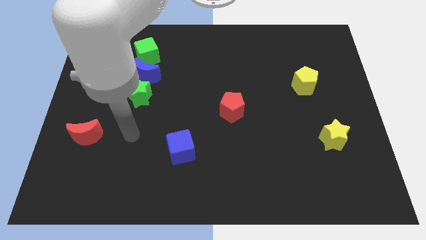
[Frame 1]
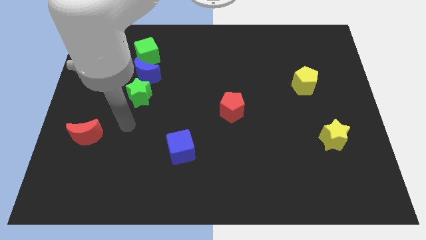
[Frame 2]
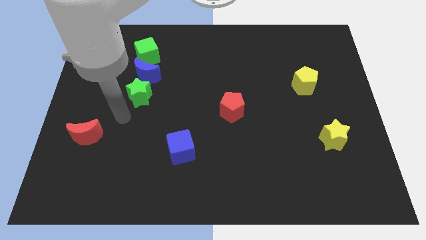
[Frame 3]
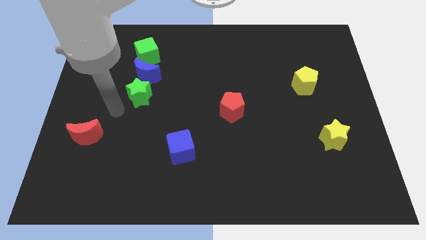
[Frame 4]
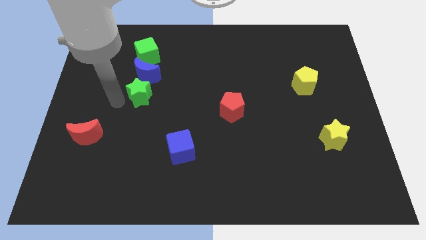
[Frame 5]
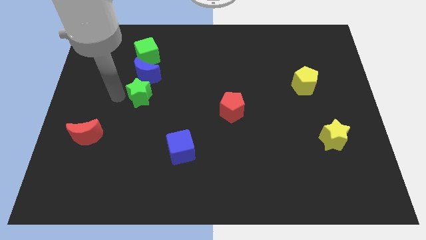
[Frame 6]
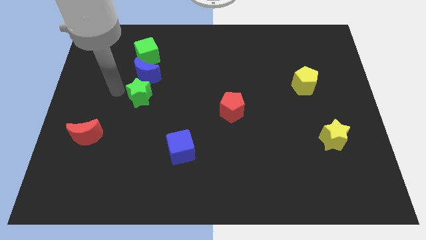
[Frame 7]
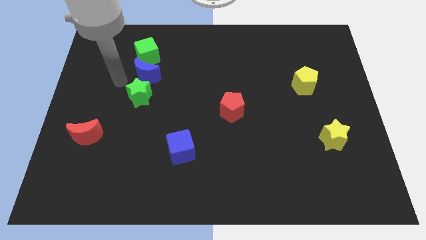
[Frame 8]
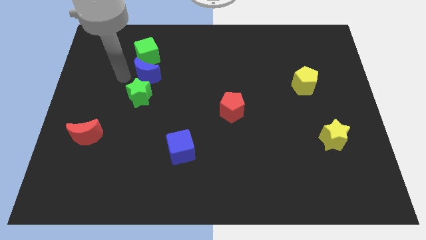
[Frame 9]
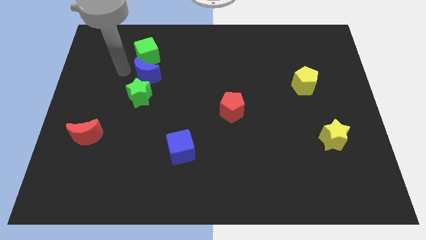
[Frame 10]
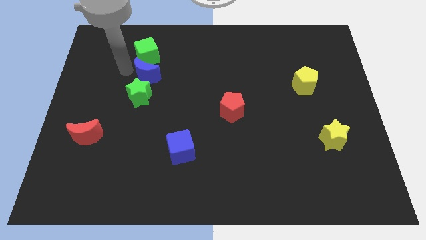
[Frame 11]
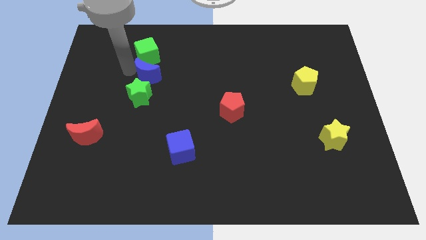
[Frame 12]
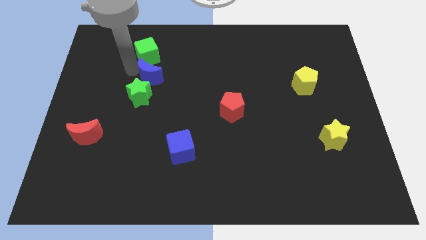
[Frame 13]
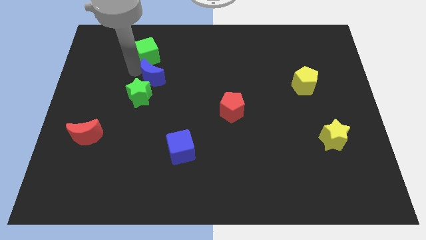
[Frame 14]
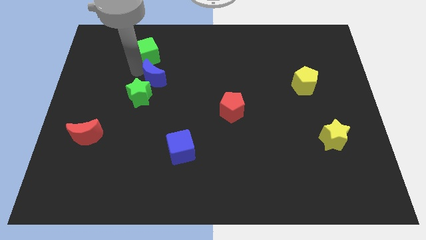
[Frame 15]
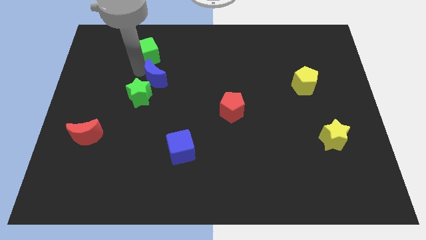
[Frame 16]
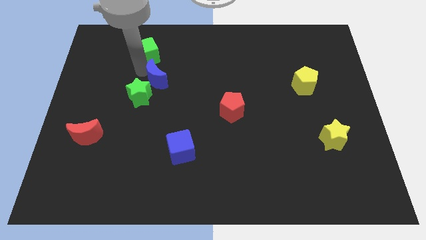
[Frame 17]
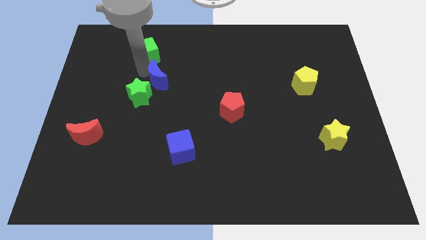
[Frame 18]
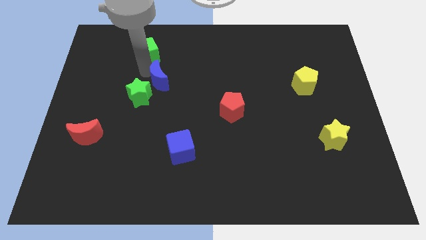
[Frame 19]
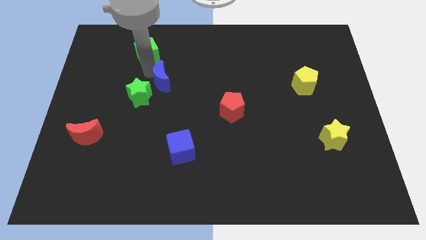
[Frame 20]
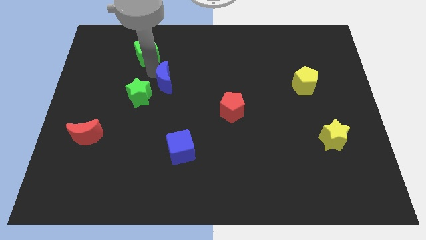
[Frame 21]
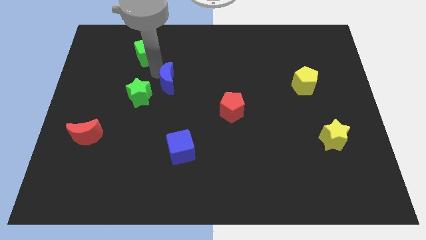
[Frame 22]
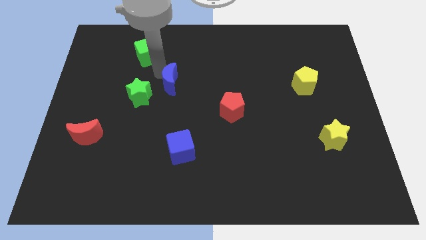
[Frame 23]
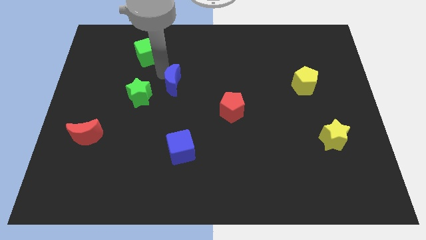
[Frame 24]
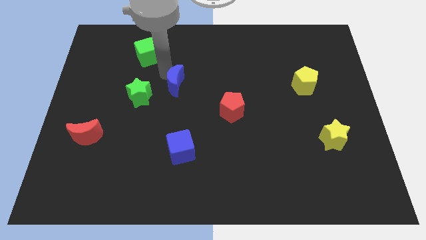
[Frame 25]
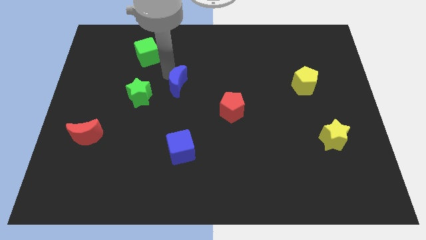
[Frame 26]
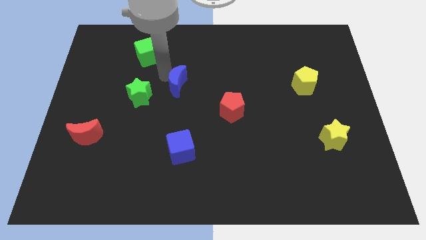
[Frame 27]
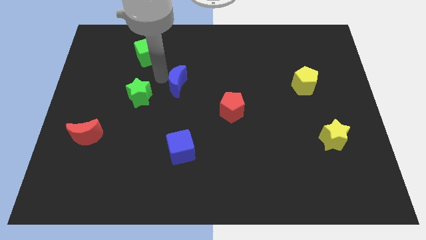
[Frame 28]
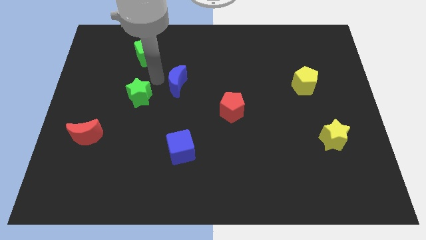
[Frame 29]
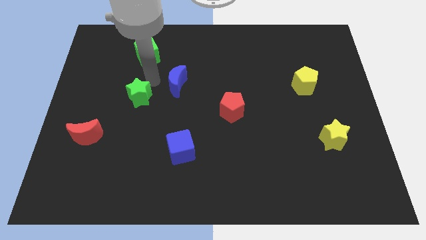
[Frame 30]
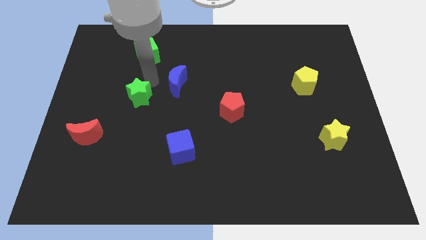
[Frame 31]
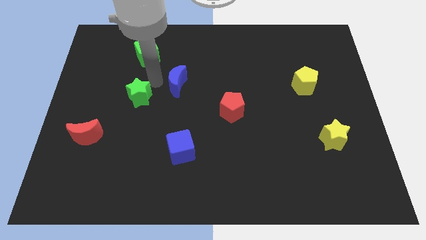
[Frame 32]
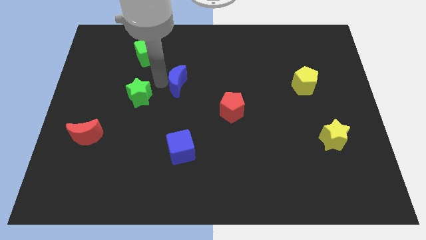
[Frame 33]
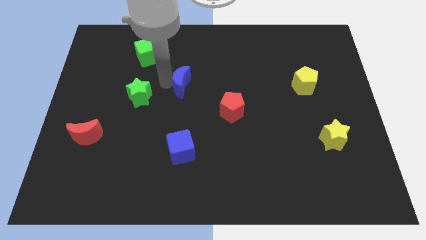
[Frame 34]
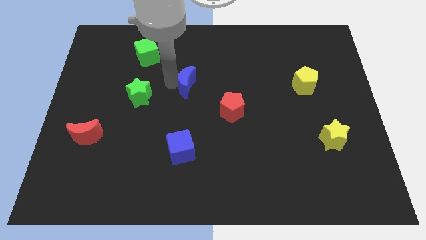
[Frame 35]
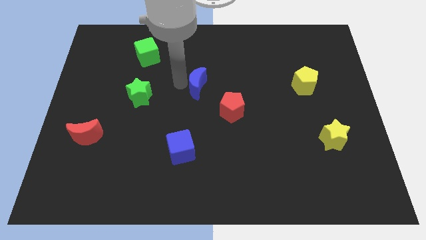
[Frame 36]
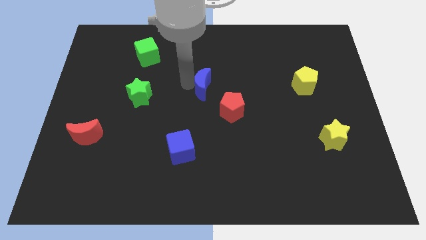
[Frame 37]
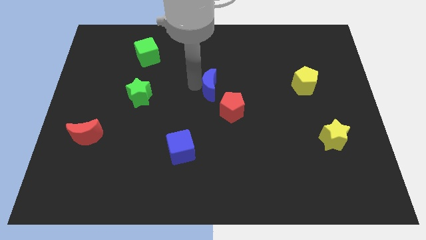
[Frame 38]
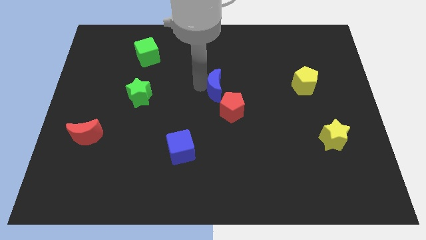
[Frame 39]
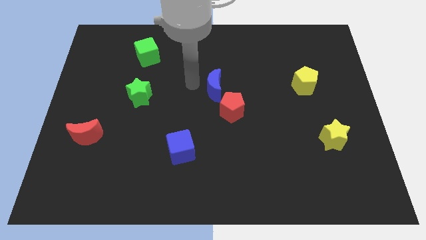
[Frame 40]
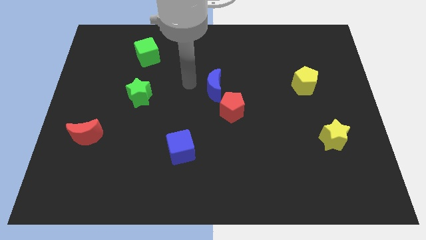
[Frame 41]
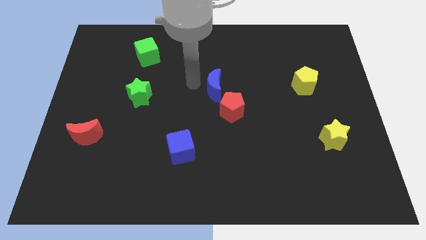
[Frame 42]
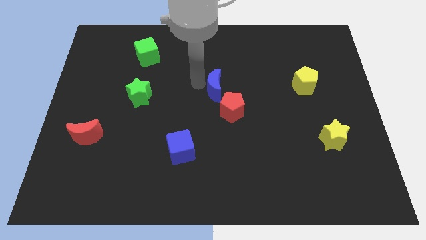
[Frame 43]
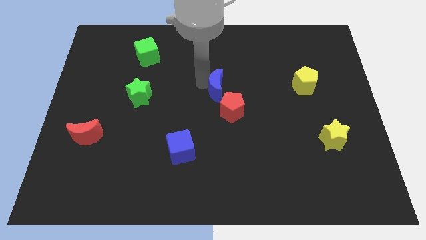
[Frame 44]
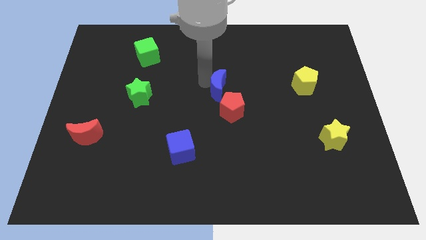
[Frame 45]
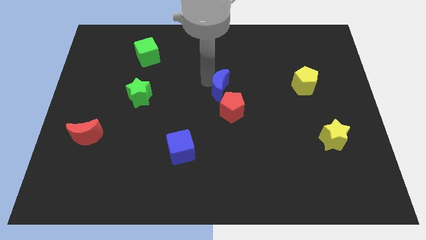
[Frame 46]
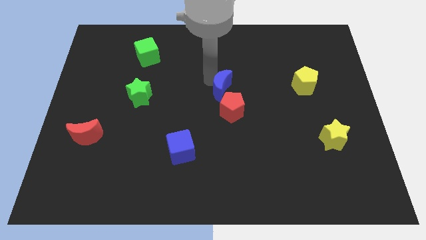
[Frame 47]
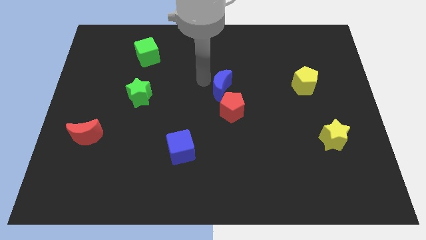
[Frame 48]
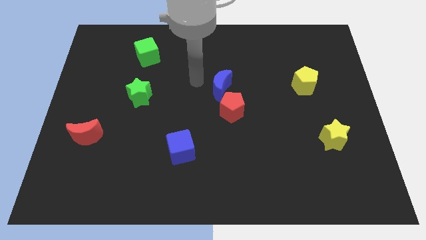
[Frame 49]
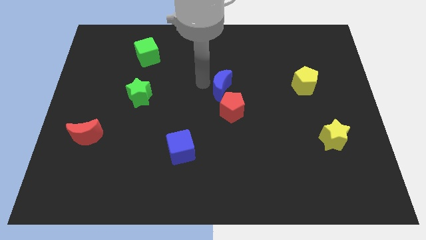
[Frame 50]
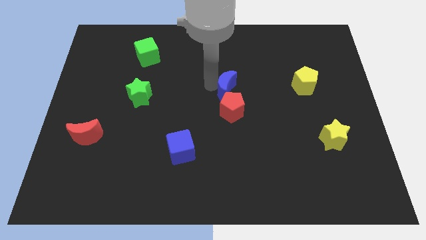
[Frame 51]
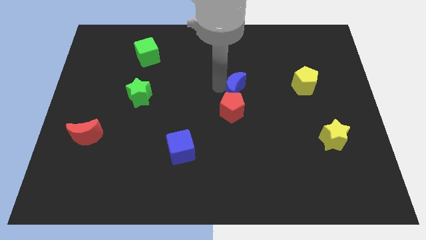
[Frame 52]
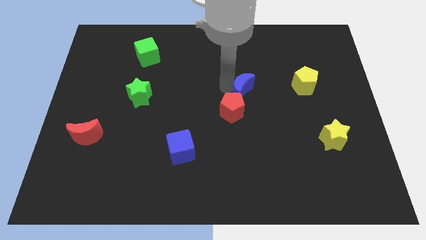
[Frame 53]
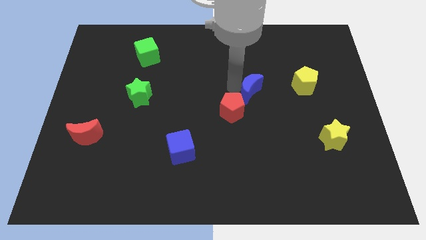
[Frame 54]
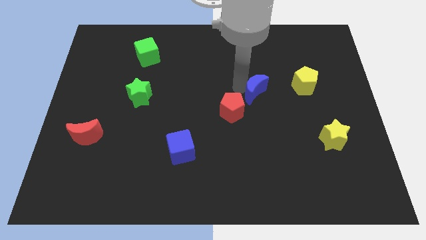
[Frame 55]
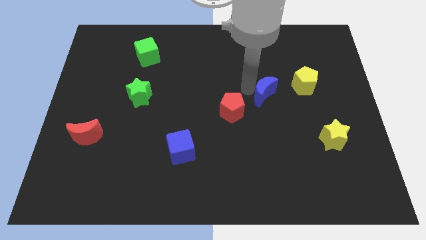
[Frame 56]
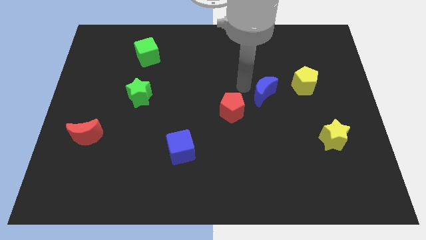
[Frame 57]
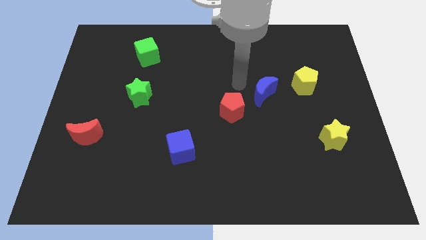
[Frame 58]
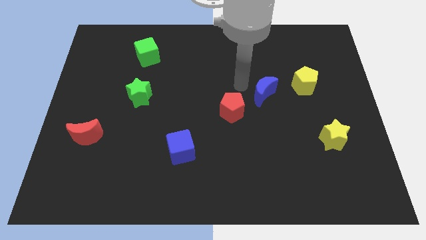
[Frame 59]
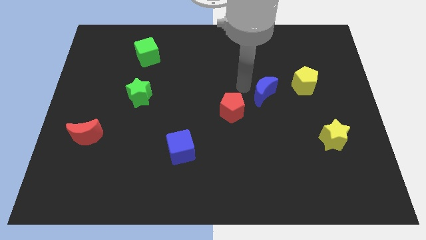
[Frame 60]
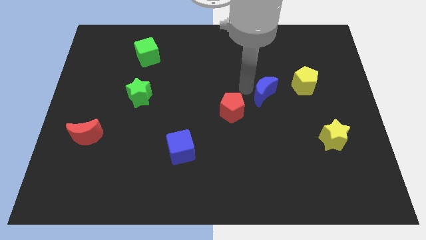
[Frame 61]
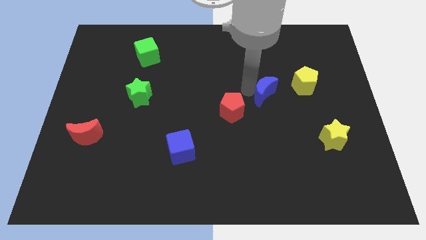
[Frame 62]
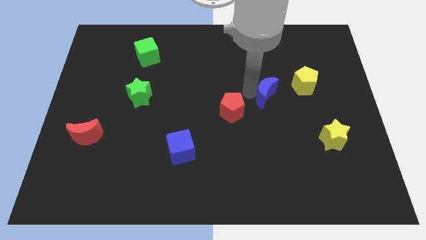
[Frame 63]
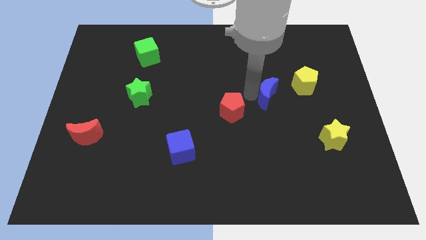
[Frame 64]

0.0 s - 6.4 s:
put the blue moon diagonally down and to the left of the yellow pentagon

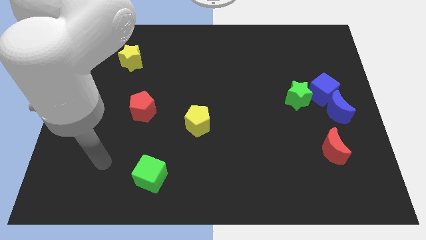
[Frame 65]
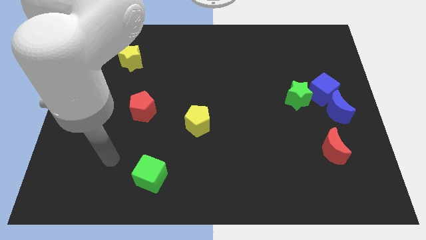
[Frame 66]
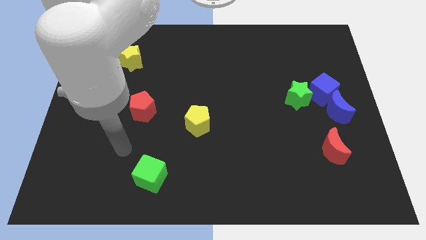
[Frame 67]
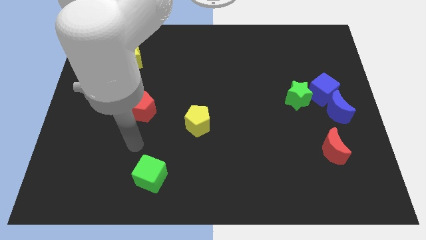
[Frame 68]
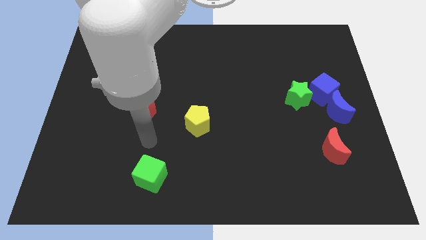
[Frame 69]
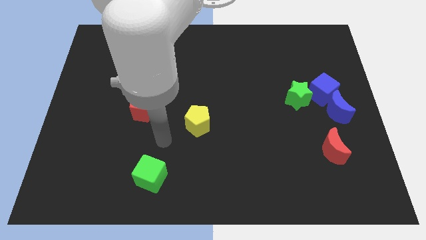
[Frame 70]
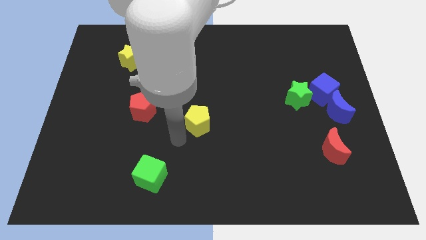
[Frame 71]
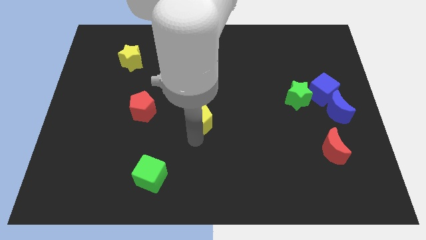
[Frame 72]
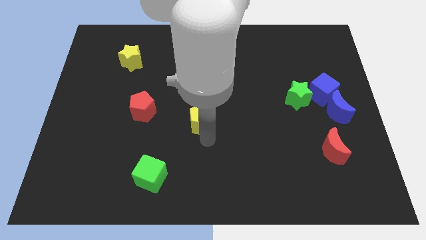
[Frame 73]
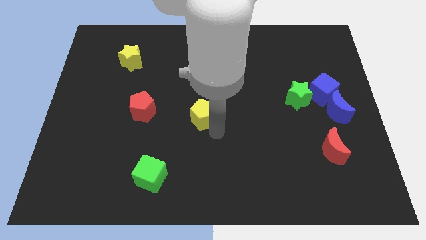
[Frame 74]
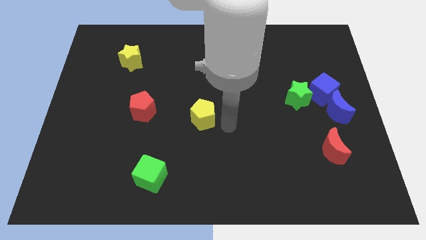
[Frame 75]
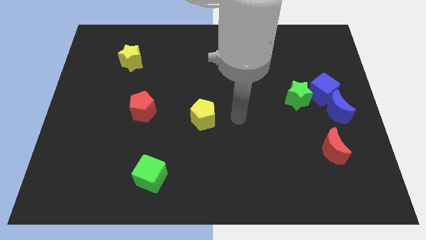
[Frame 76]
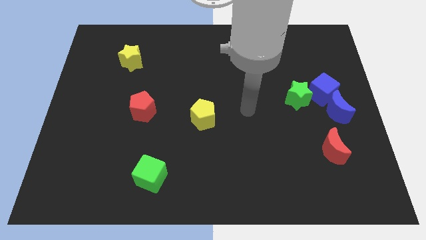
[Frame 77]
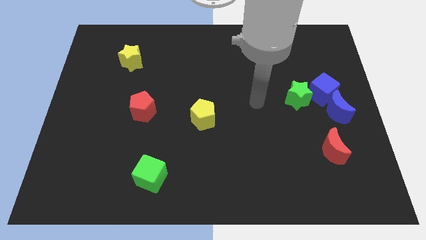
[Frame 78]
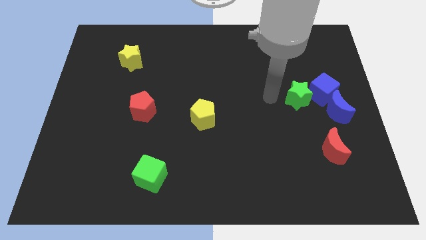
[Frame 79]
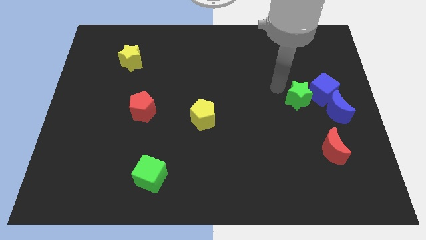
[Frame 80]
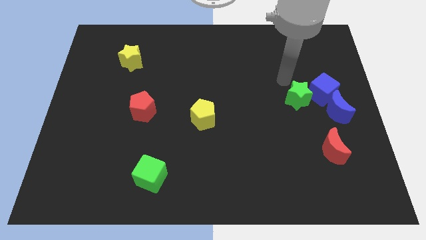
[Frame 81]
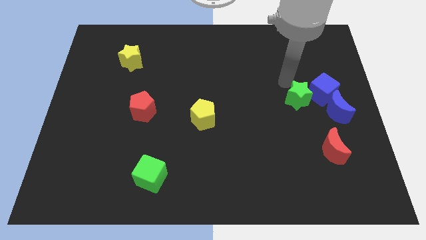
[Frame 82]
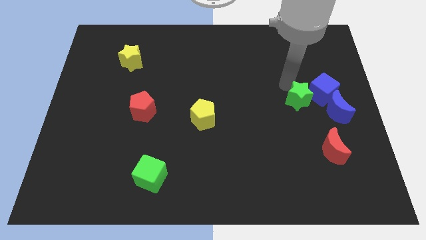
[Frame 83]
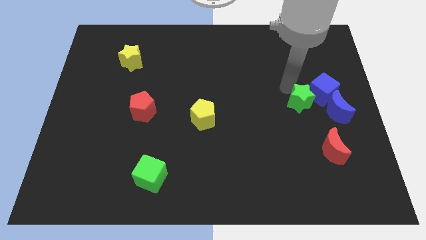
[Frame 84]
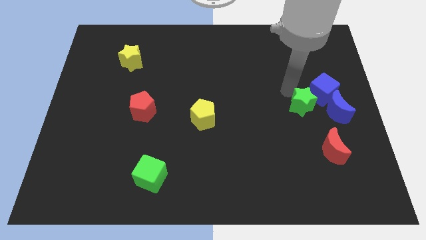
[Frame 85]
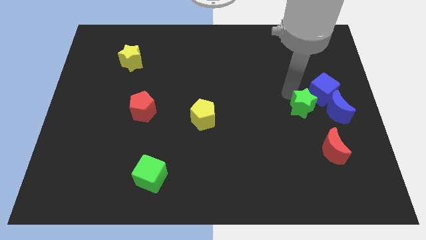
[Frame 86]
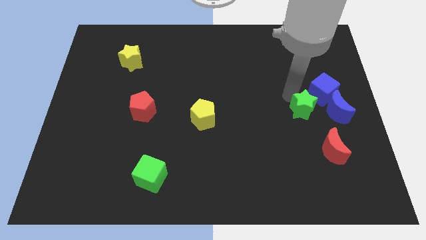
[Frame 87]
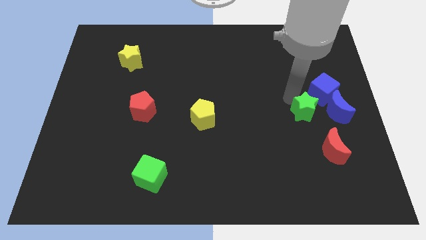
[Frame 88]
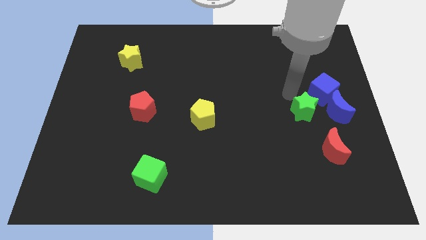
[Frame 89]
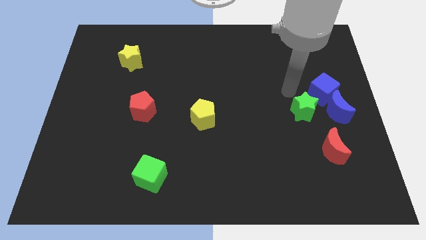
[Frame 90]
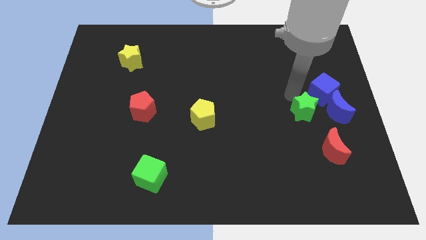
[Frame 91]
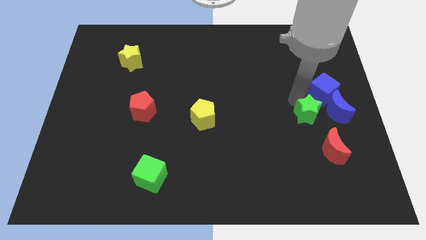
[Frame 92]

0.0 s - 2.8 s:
put the green star to the bottom left side of the blue moon
